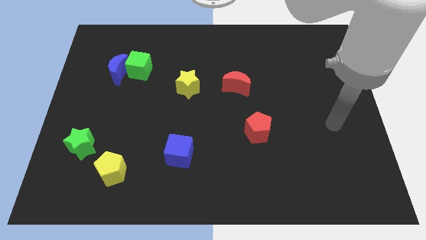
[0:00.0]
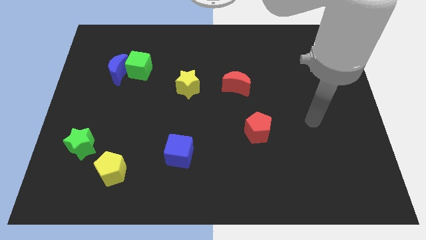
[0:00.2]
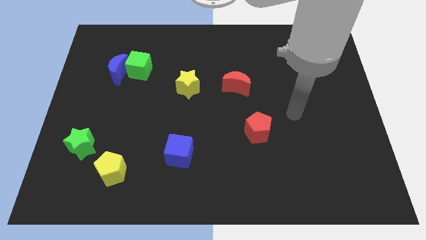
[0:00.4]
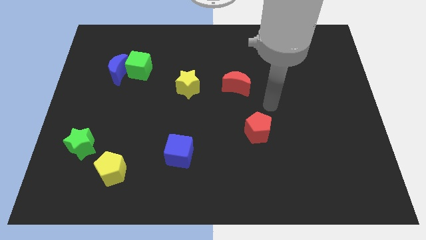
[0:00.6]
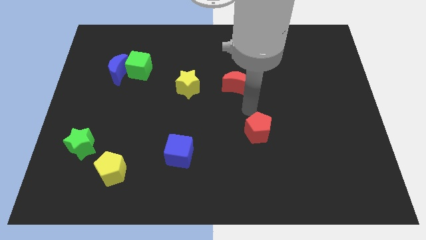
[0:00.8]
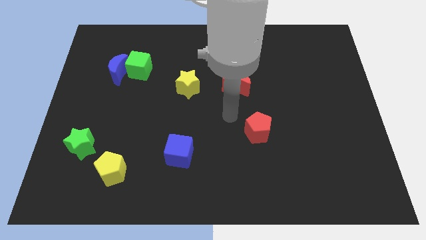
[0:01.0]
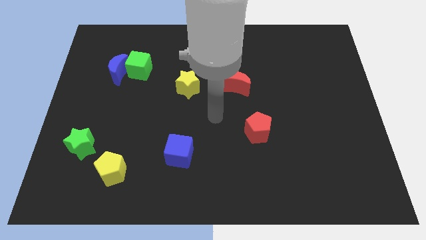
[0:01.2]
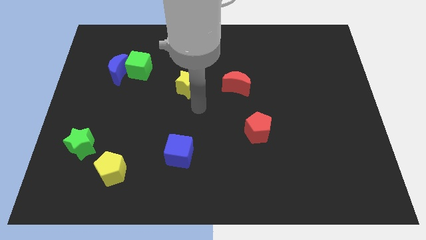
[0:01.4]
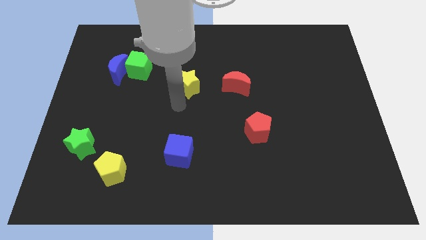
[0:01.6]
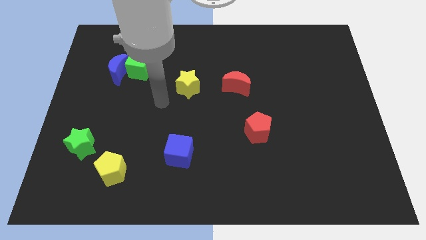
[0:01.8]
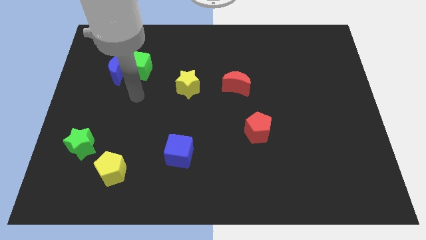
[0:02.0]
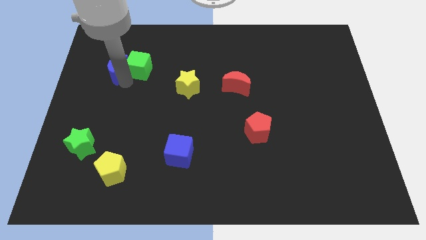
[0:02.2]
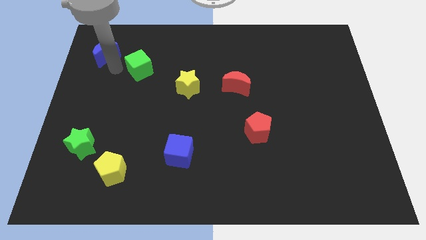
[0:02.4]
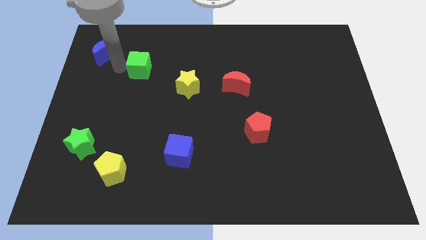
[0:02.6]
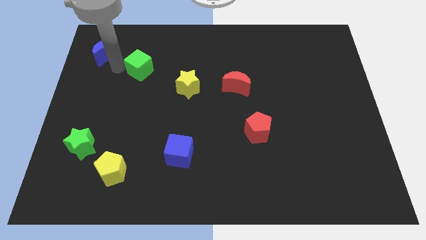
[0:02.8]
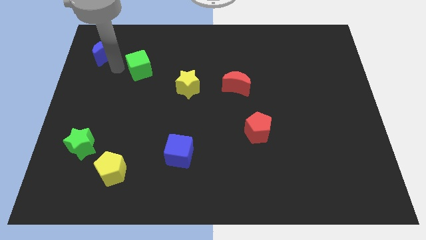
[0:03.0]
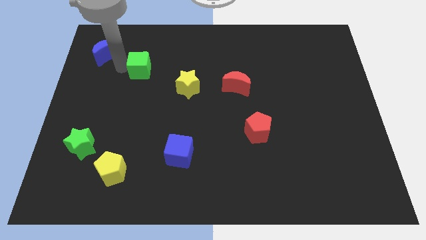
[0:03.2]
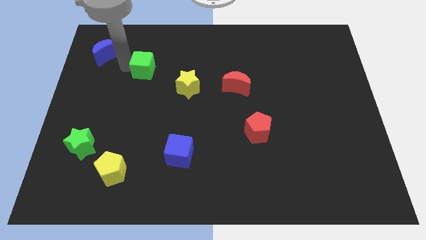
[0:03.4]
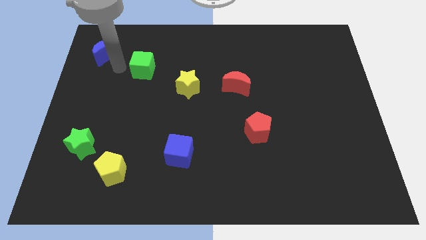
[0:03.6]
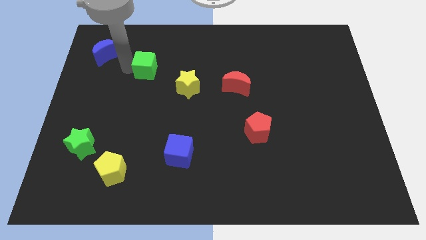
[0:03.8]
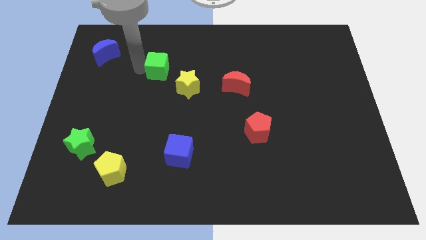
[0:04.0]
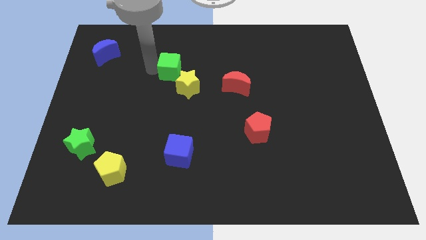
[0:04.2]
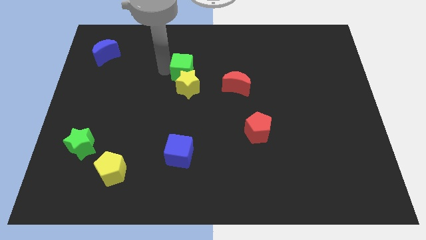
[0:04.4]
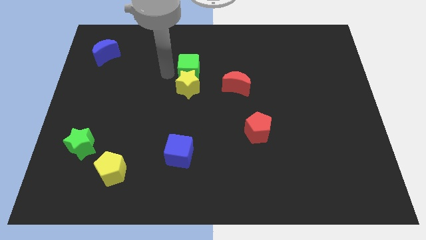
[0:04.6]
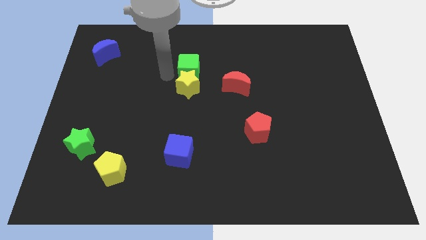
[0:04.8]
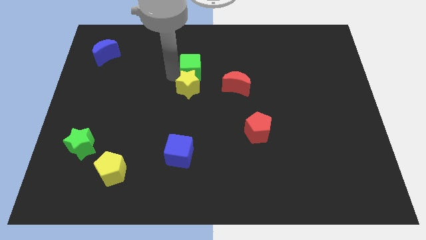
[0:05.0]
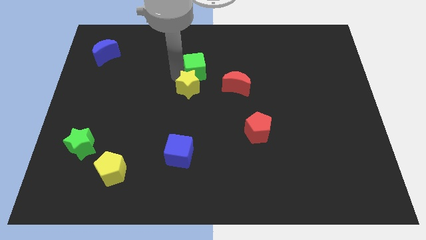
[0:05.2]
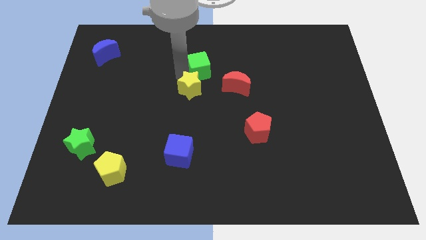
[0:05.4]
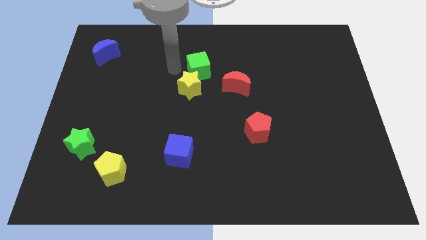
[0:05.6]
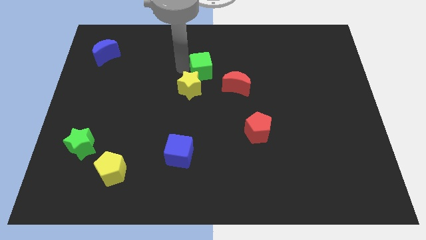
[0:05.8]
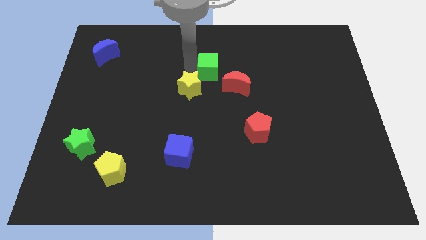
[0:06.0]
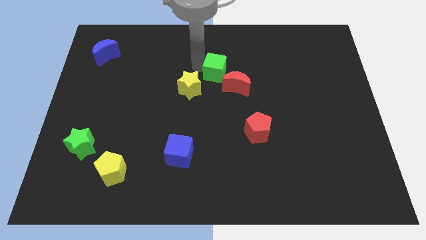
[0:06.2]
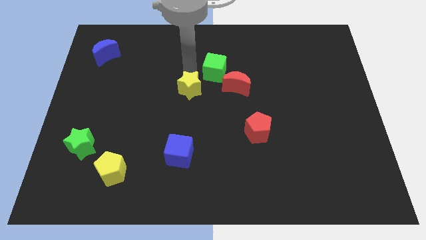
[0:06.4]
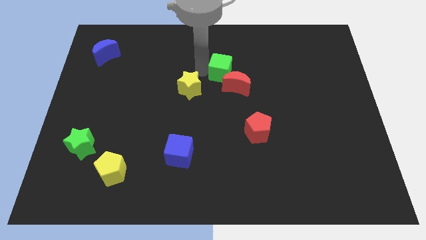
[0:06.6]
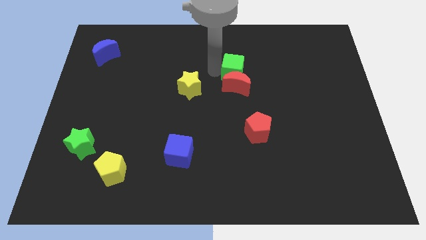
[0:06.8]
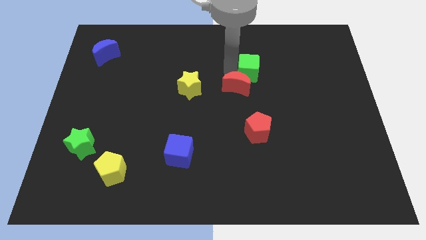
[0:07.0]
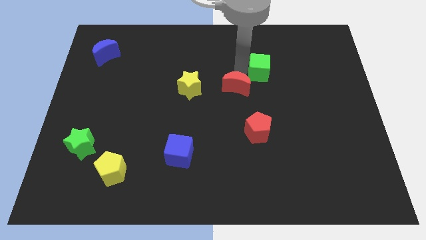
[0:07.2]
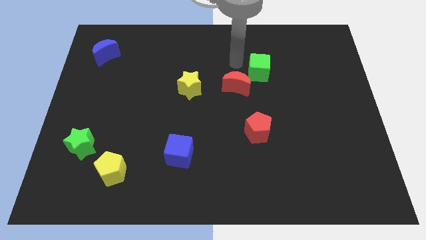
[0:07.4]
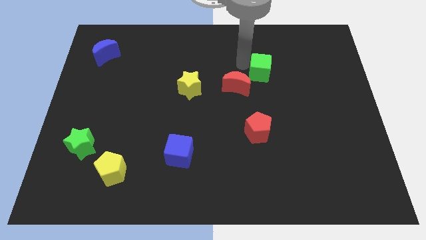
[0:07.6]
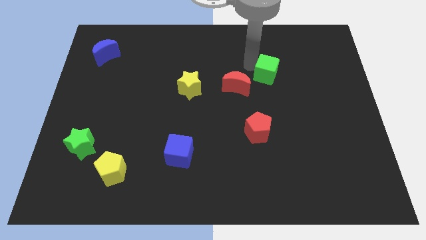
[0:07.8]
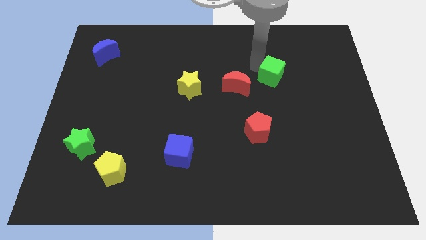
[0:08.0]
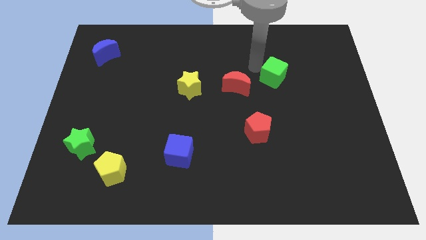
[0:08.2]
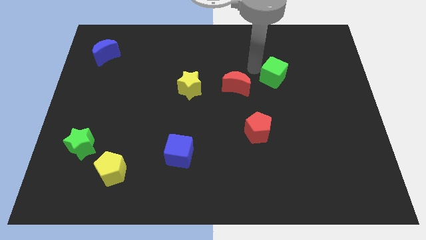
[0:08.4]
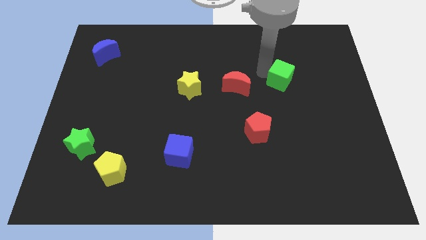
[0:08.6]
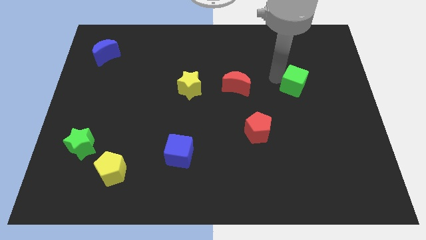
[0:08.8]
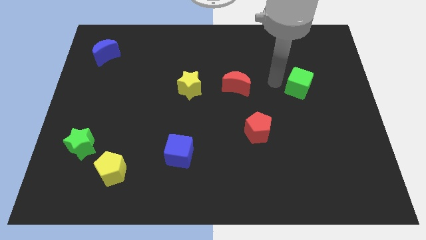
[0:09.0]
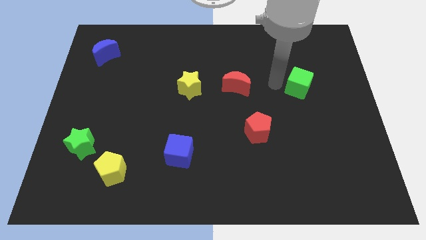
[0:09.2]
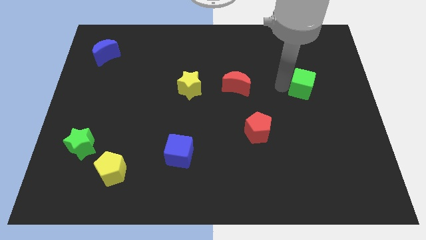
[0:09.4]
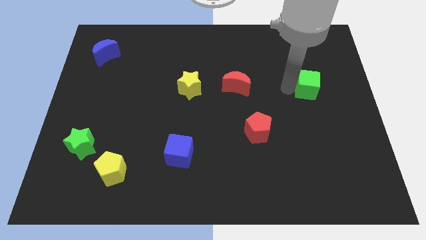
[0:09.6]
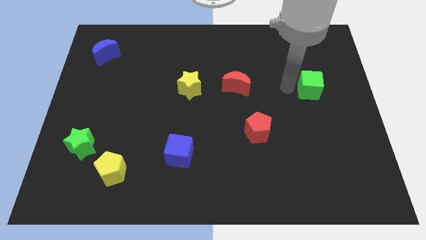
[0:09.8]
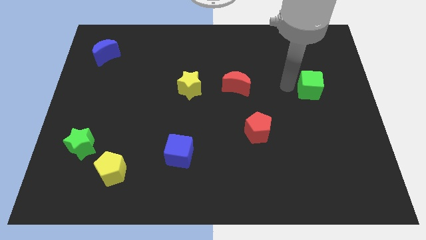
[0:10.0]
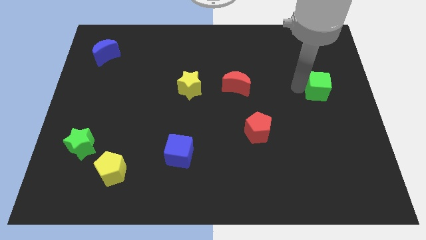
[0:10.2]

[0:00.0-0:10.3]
slide the green cube to the right side of the board
